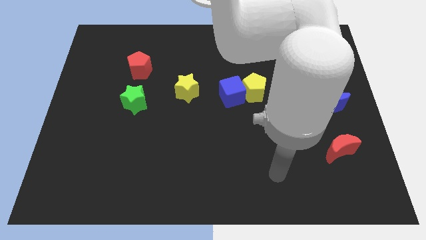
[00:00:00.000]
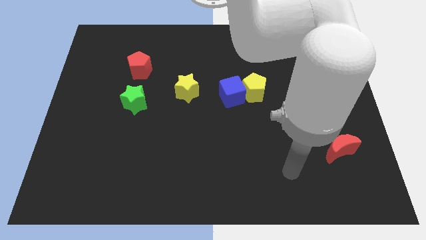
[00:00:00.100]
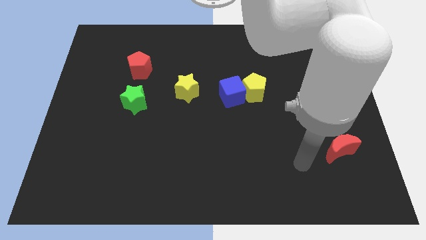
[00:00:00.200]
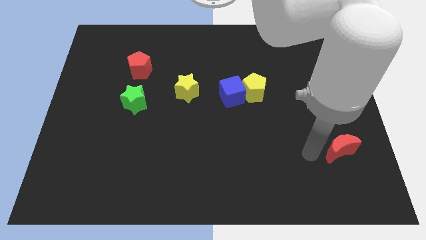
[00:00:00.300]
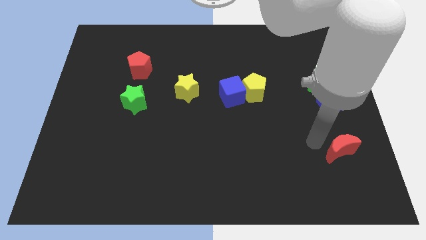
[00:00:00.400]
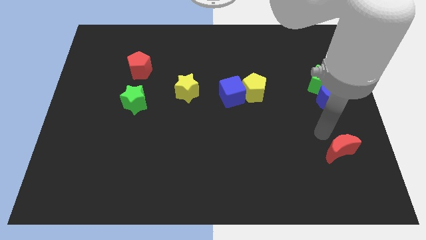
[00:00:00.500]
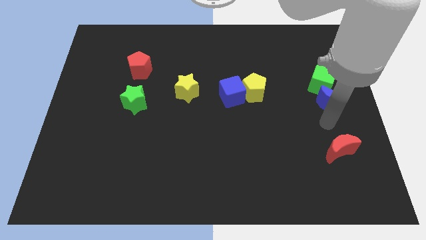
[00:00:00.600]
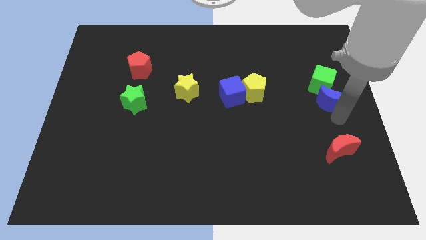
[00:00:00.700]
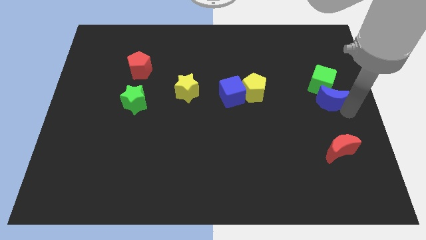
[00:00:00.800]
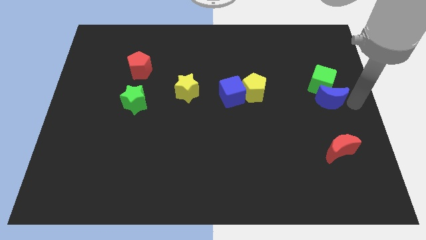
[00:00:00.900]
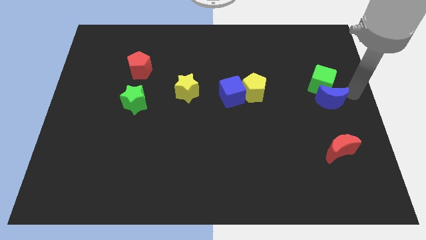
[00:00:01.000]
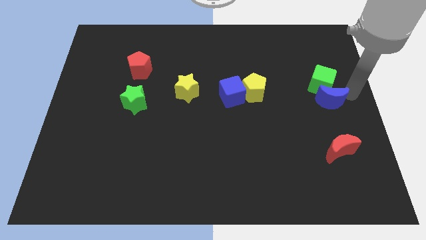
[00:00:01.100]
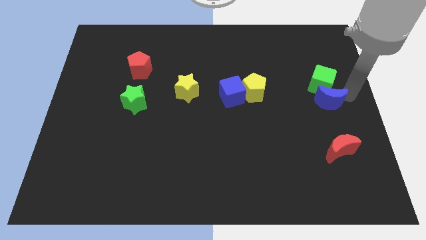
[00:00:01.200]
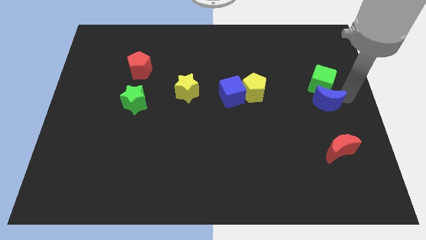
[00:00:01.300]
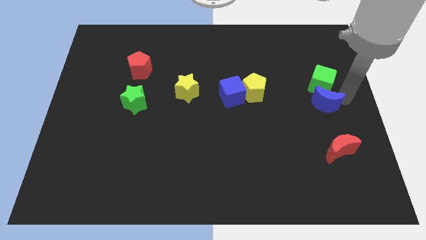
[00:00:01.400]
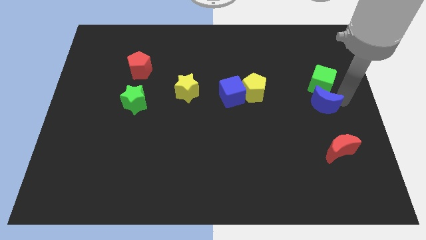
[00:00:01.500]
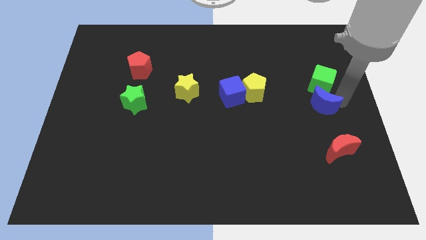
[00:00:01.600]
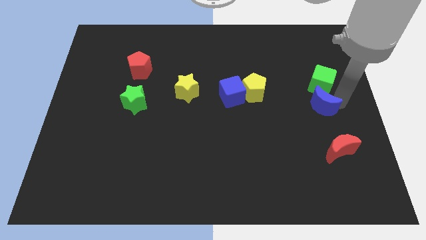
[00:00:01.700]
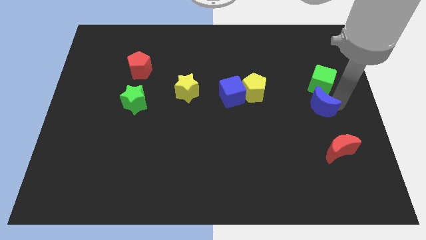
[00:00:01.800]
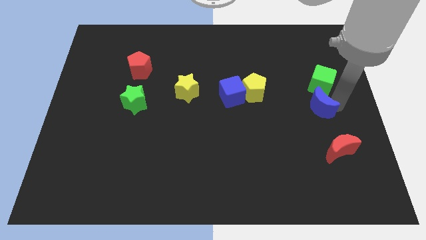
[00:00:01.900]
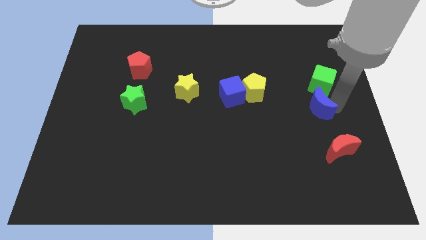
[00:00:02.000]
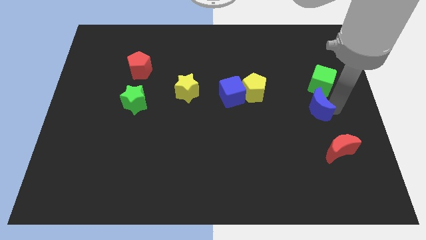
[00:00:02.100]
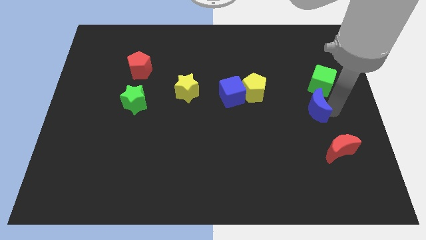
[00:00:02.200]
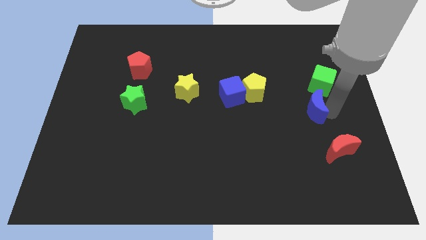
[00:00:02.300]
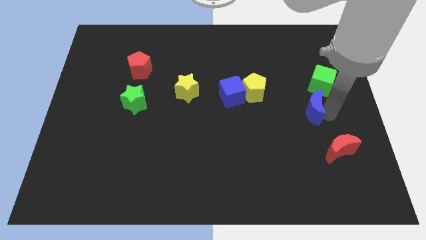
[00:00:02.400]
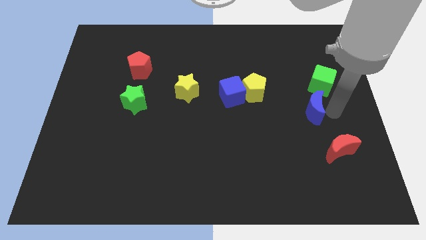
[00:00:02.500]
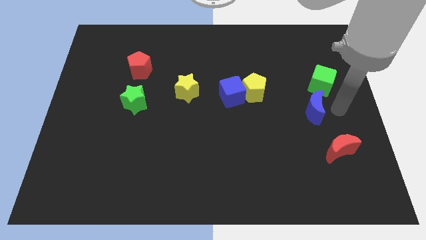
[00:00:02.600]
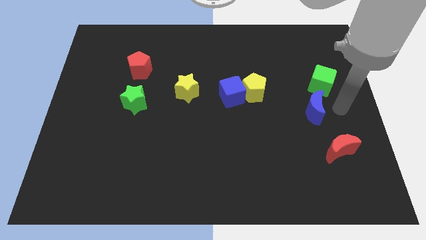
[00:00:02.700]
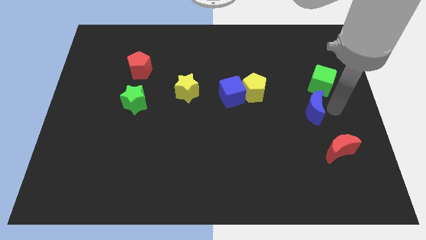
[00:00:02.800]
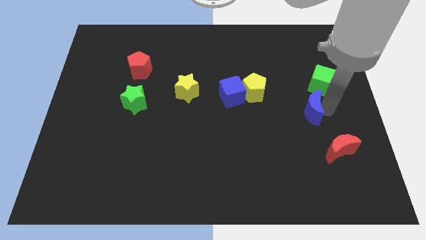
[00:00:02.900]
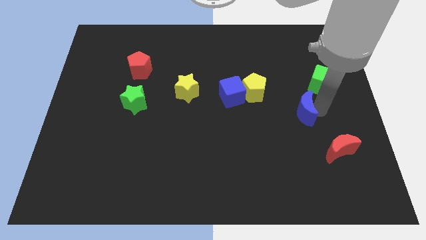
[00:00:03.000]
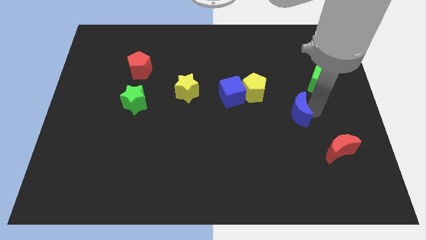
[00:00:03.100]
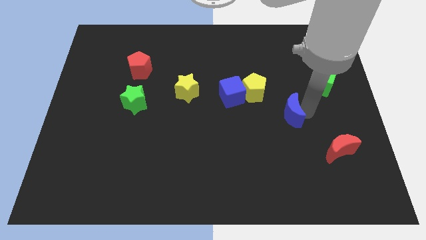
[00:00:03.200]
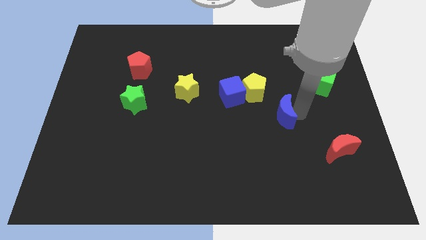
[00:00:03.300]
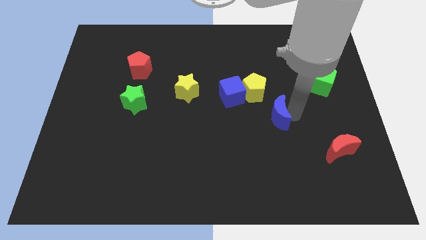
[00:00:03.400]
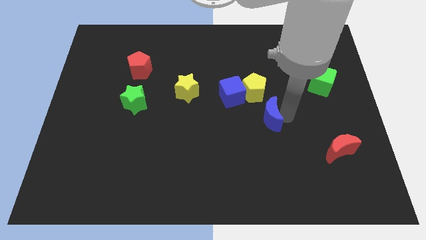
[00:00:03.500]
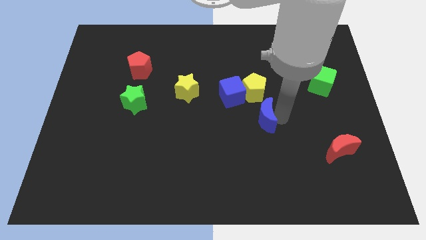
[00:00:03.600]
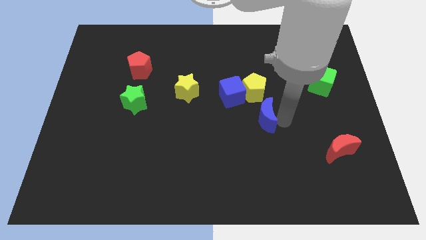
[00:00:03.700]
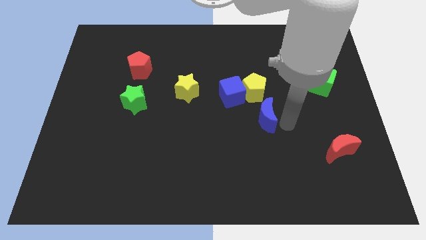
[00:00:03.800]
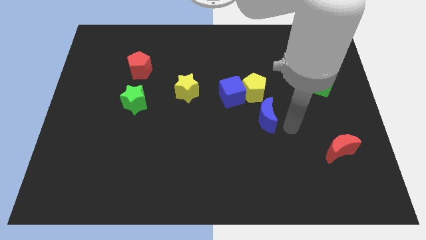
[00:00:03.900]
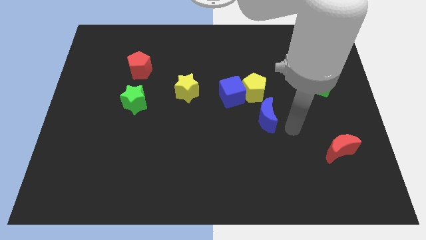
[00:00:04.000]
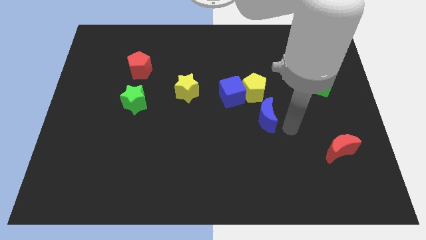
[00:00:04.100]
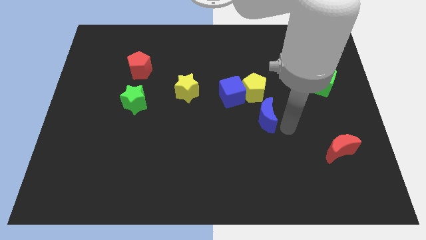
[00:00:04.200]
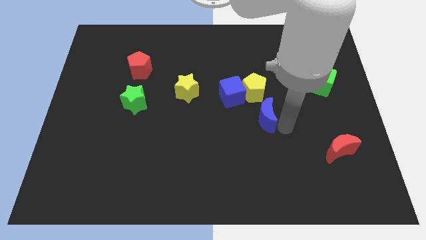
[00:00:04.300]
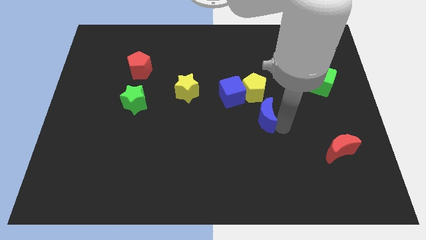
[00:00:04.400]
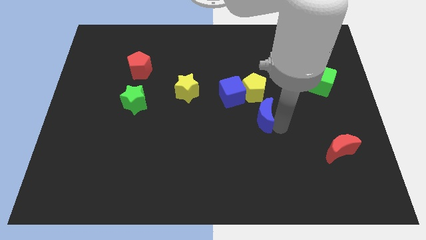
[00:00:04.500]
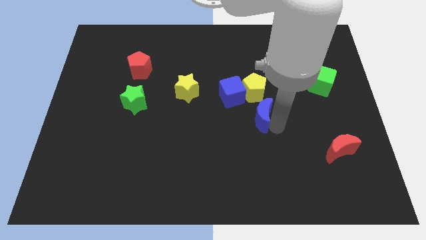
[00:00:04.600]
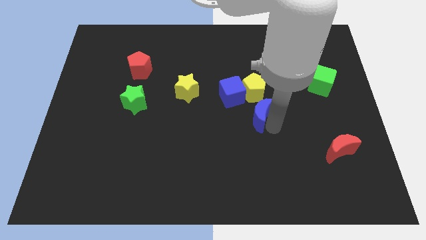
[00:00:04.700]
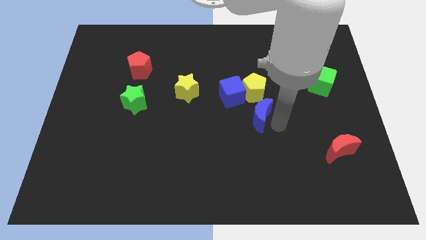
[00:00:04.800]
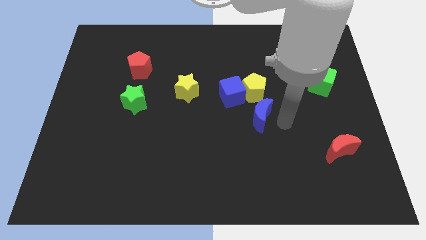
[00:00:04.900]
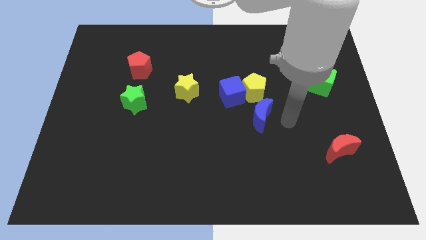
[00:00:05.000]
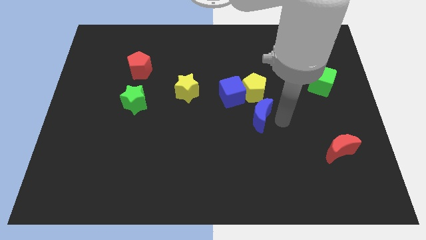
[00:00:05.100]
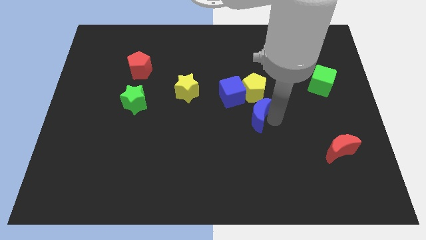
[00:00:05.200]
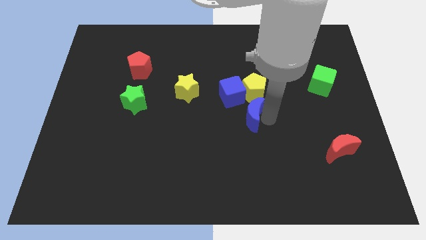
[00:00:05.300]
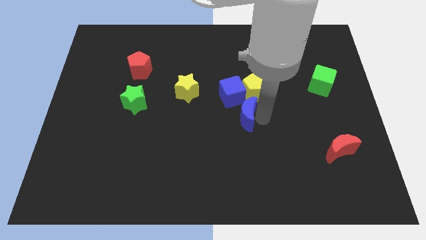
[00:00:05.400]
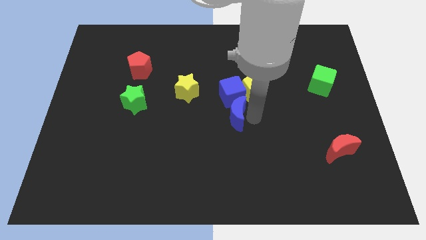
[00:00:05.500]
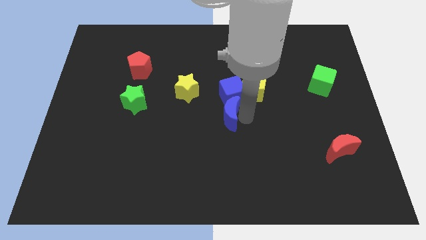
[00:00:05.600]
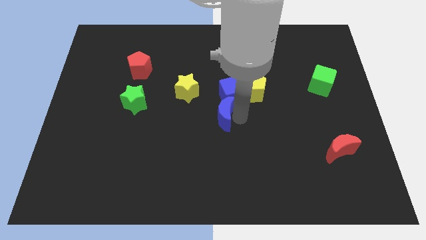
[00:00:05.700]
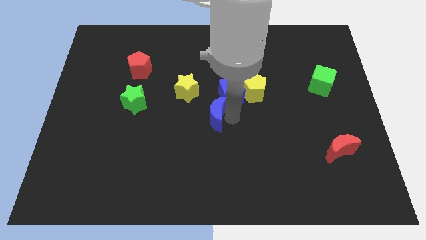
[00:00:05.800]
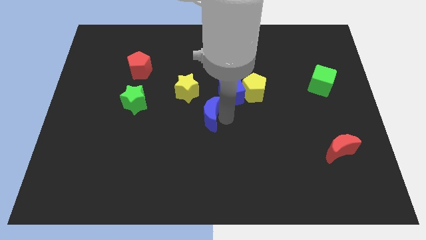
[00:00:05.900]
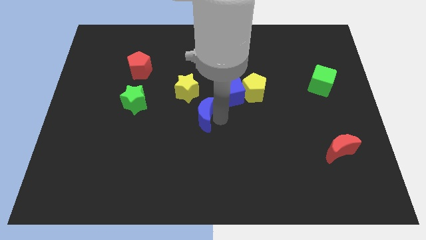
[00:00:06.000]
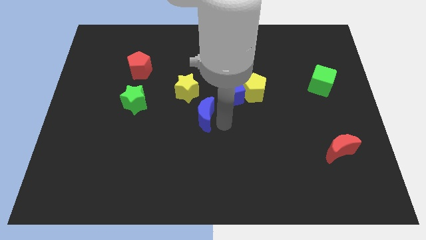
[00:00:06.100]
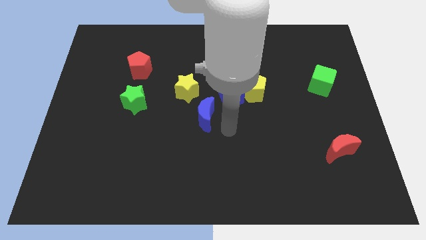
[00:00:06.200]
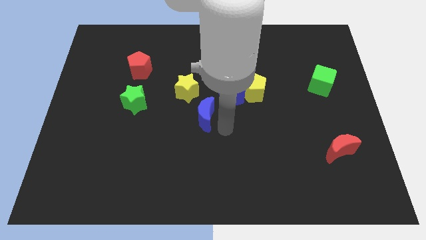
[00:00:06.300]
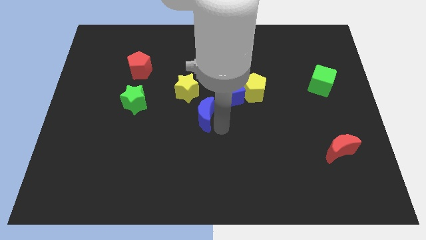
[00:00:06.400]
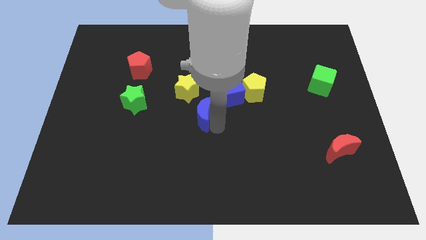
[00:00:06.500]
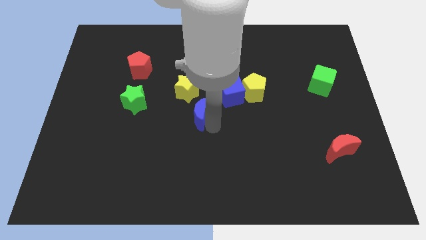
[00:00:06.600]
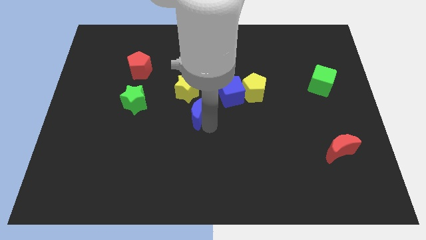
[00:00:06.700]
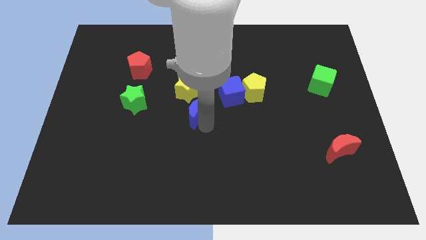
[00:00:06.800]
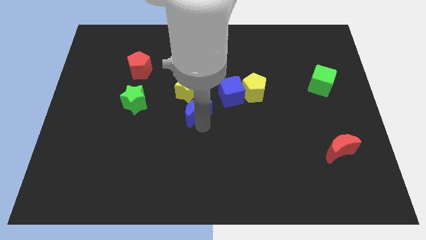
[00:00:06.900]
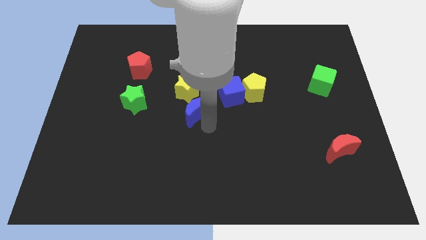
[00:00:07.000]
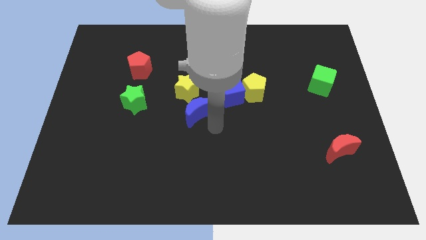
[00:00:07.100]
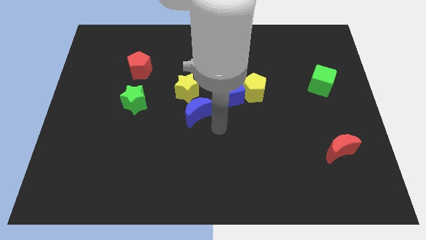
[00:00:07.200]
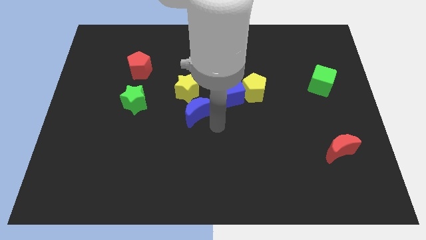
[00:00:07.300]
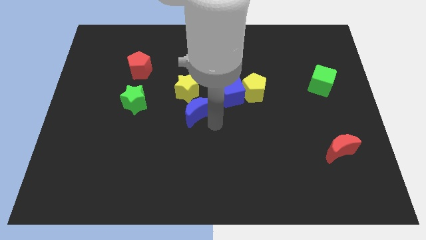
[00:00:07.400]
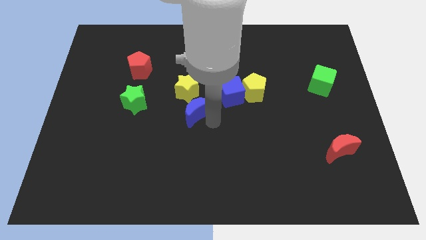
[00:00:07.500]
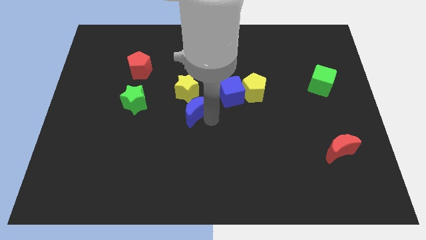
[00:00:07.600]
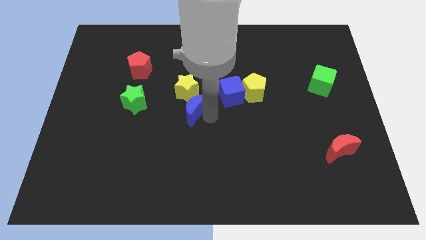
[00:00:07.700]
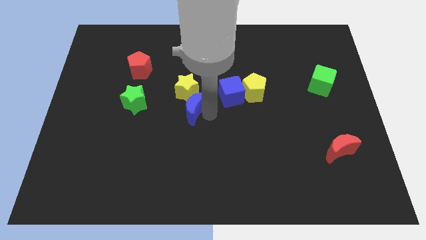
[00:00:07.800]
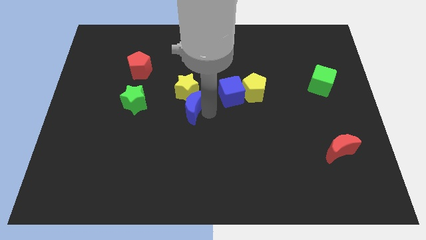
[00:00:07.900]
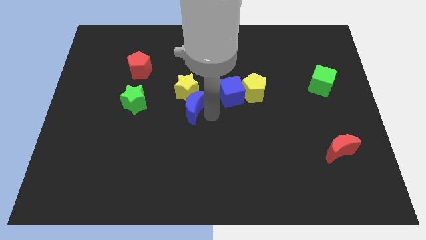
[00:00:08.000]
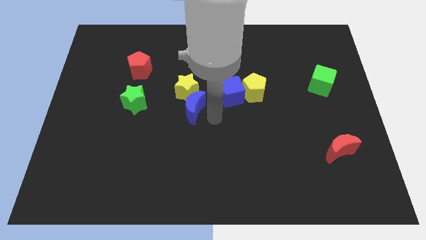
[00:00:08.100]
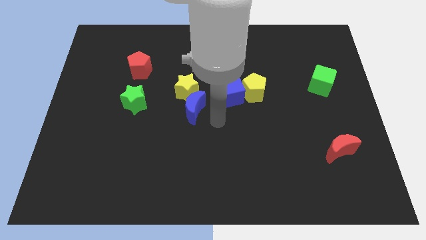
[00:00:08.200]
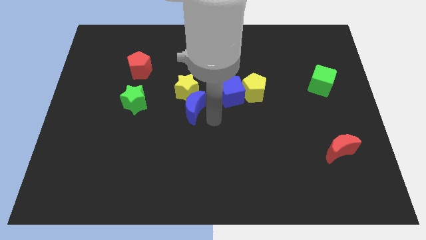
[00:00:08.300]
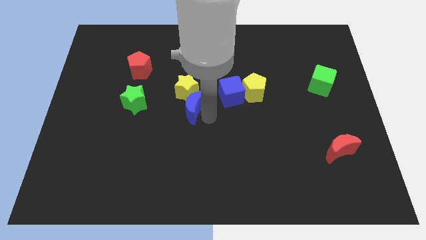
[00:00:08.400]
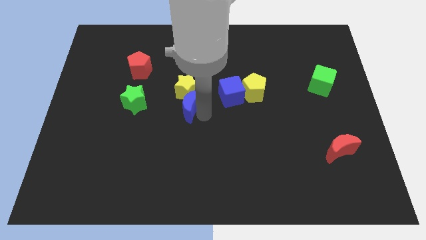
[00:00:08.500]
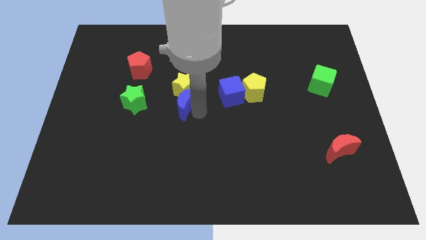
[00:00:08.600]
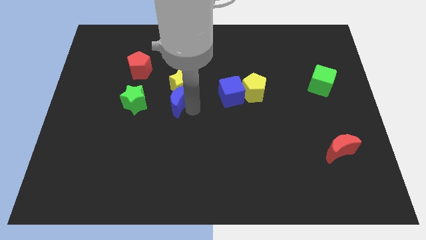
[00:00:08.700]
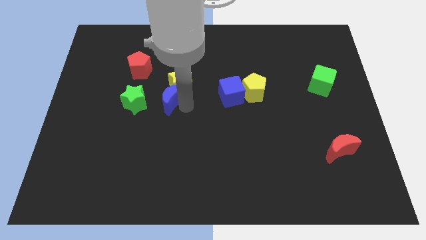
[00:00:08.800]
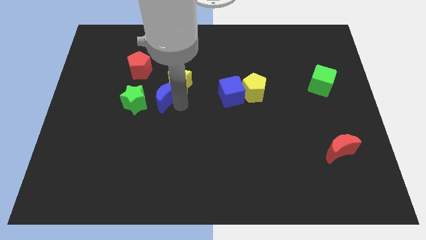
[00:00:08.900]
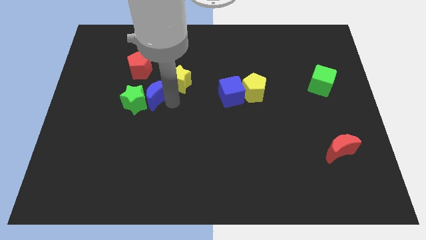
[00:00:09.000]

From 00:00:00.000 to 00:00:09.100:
move the blue moon left of the yellow star
